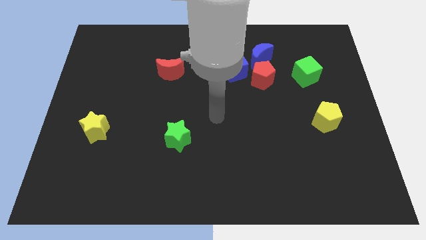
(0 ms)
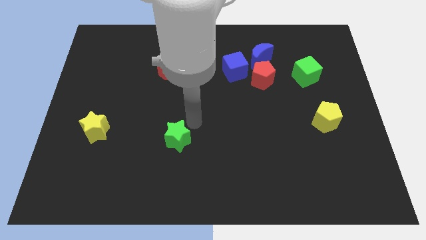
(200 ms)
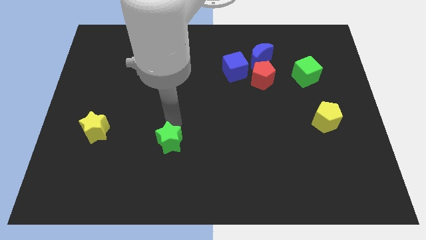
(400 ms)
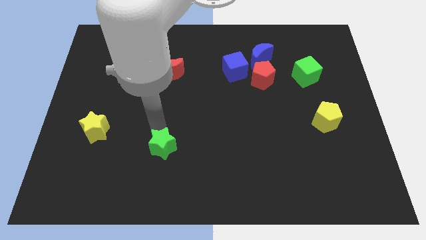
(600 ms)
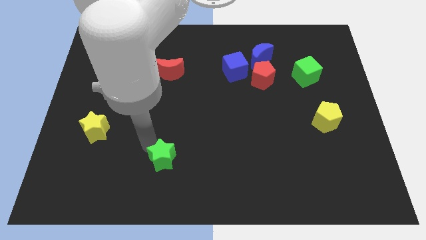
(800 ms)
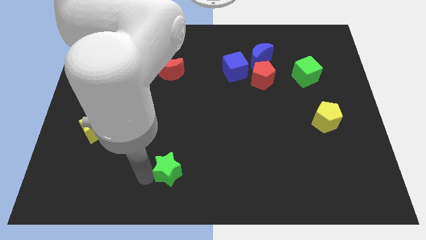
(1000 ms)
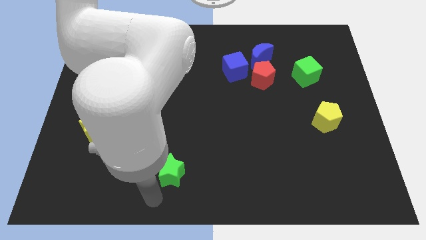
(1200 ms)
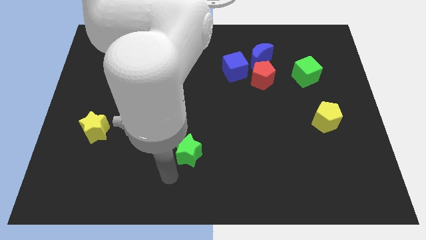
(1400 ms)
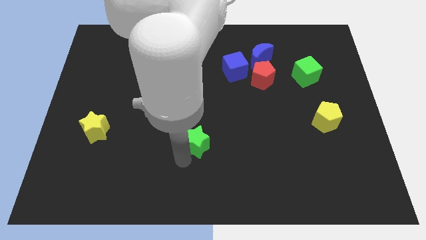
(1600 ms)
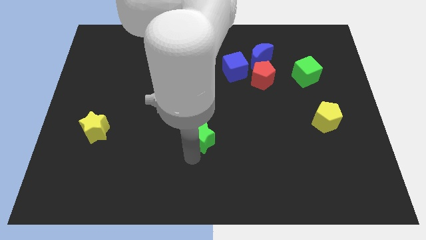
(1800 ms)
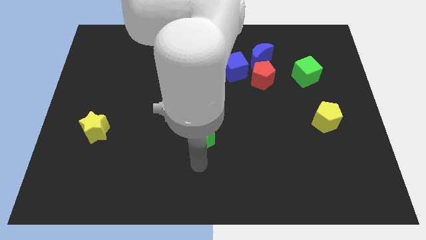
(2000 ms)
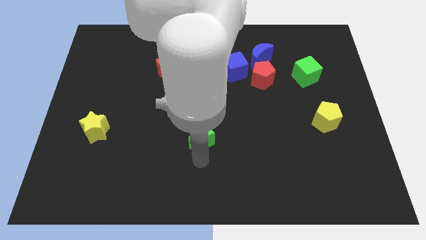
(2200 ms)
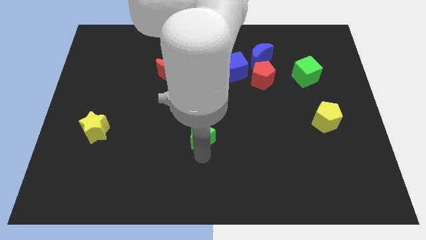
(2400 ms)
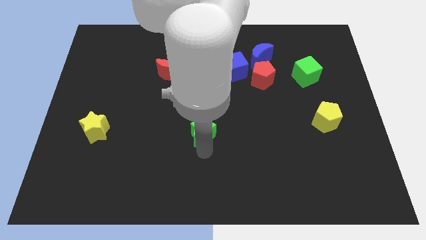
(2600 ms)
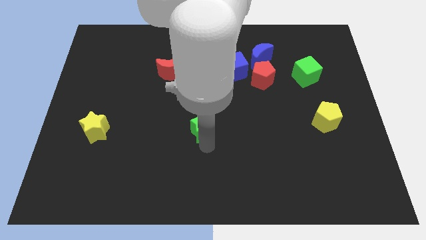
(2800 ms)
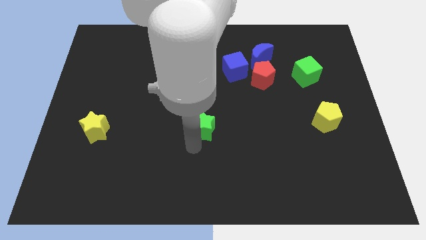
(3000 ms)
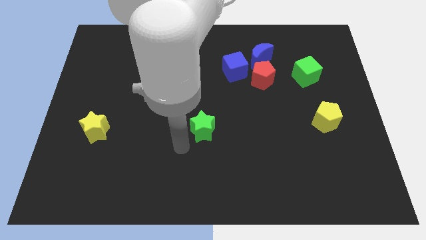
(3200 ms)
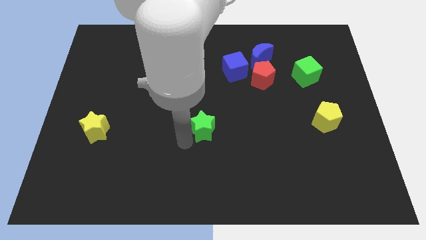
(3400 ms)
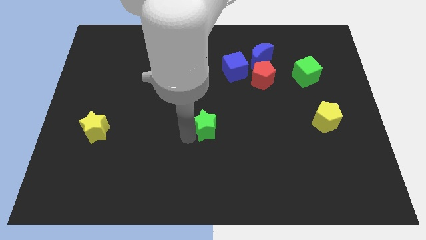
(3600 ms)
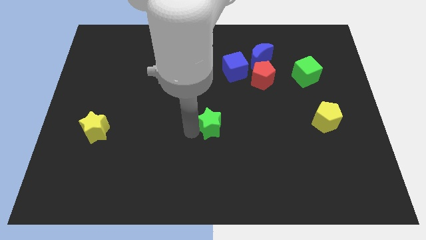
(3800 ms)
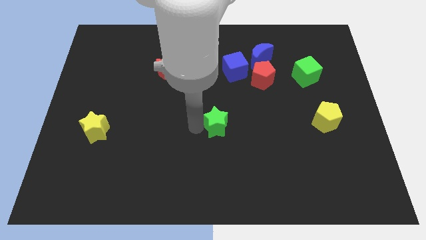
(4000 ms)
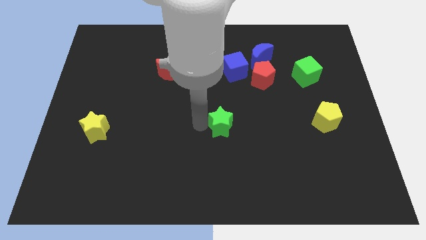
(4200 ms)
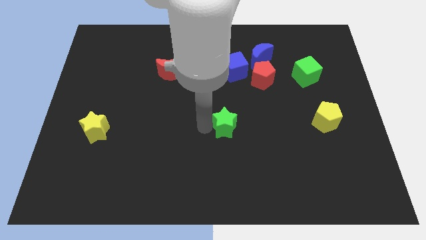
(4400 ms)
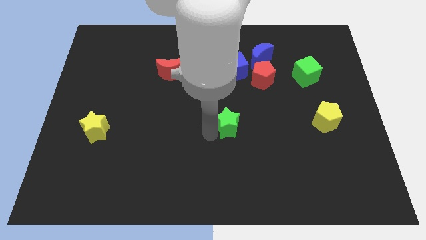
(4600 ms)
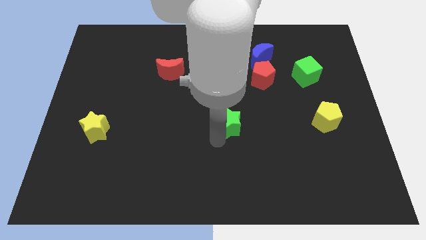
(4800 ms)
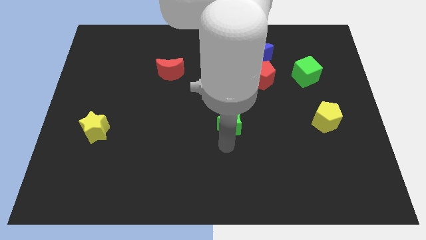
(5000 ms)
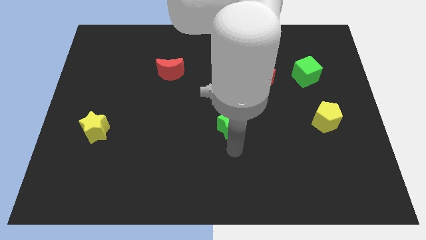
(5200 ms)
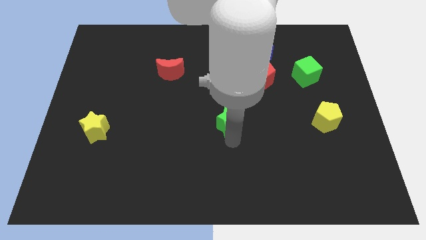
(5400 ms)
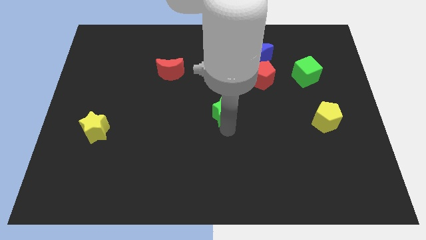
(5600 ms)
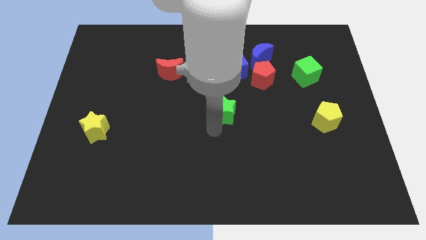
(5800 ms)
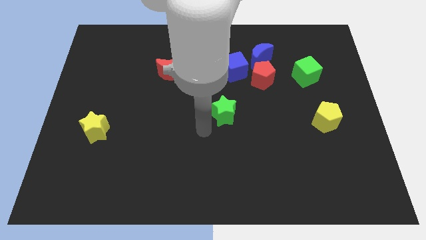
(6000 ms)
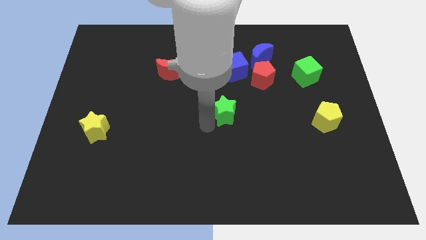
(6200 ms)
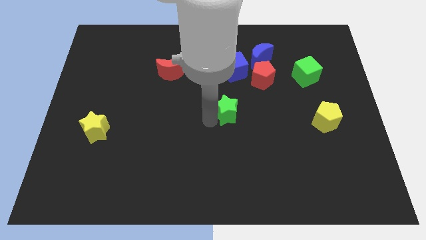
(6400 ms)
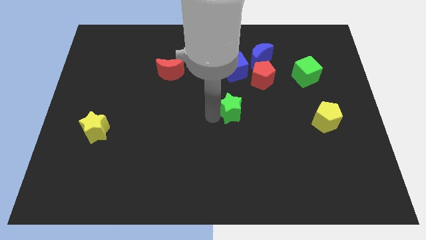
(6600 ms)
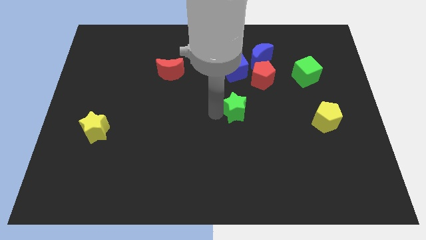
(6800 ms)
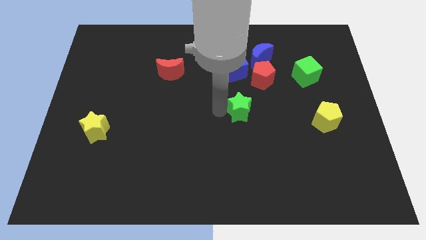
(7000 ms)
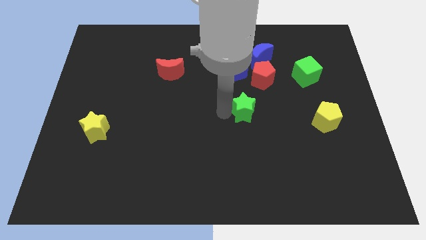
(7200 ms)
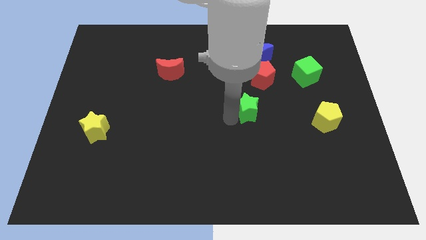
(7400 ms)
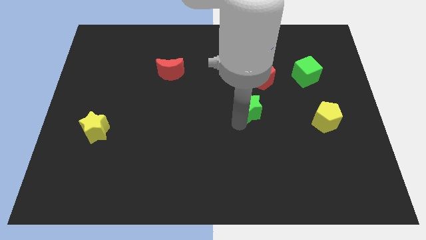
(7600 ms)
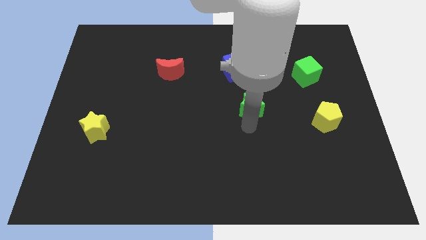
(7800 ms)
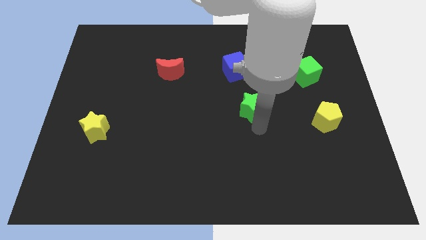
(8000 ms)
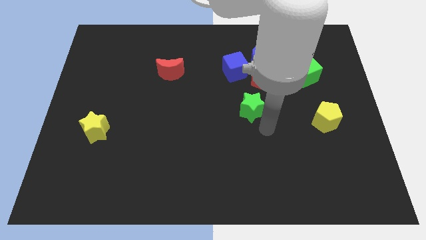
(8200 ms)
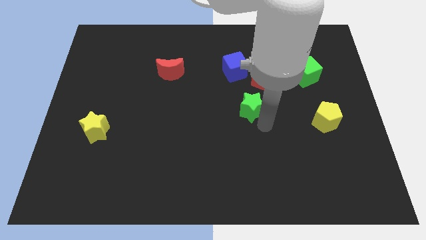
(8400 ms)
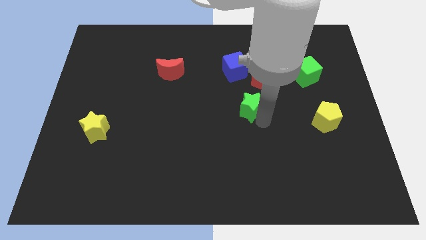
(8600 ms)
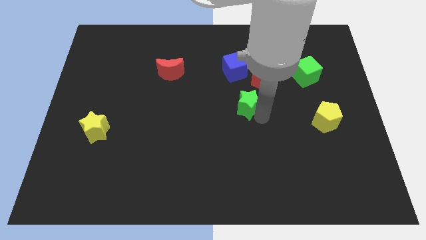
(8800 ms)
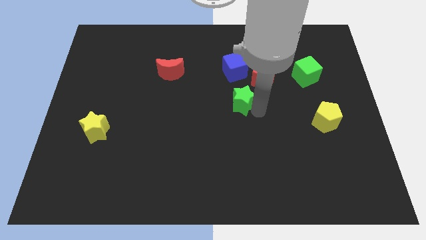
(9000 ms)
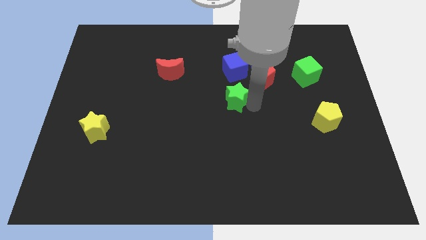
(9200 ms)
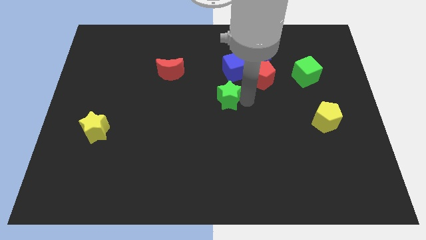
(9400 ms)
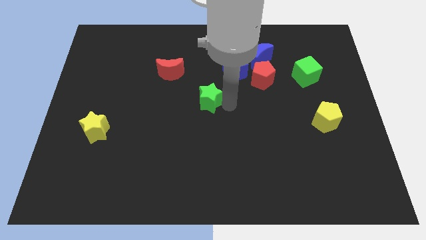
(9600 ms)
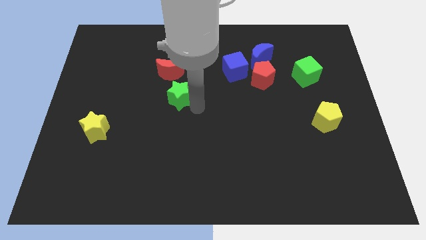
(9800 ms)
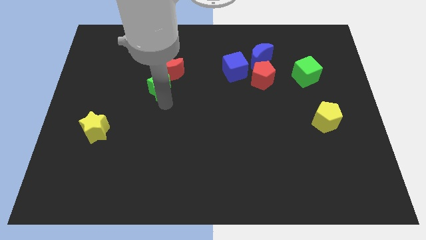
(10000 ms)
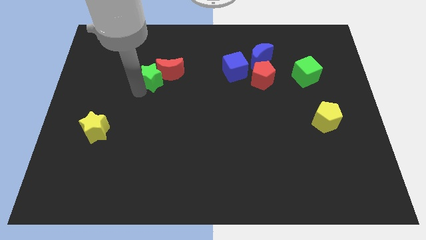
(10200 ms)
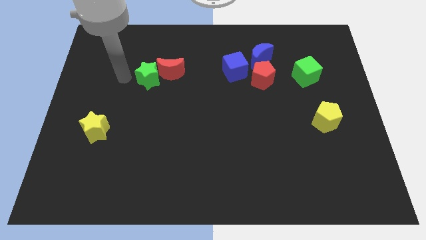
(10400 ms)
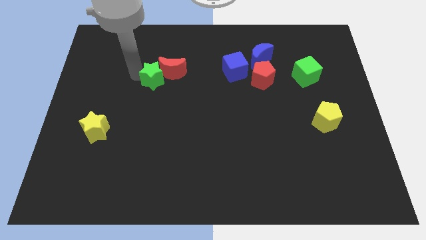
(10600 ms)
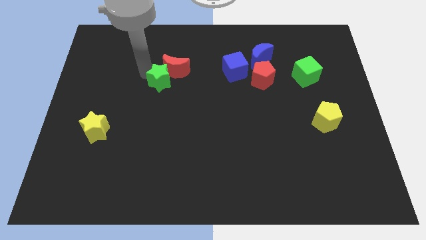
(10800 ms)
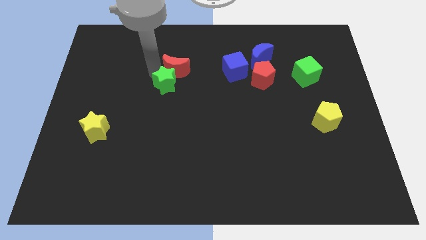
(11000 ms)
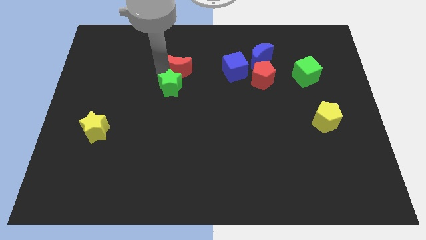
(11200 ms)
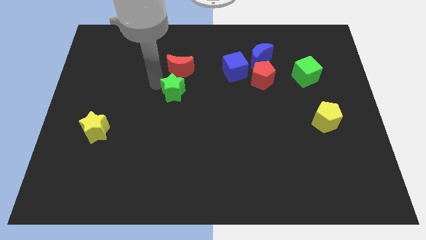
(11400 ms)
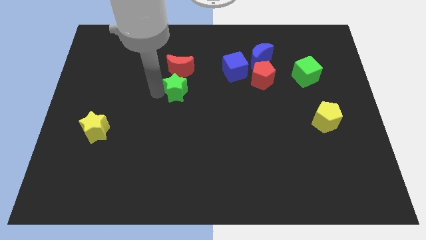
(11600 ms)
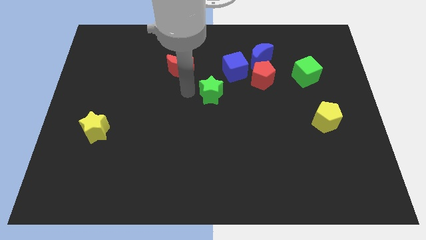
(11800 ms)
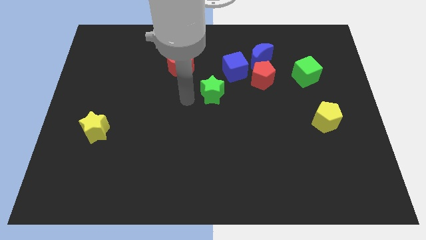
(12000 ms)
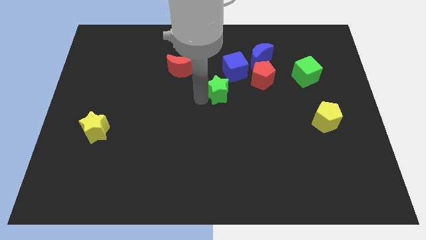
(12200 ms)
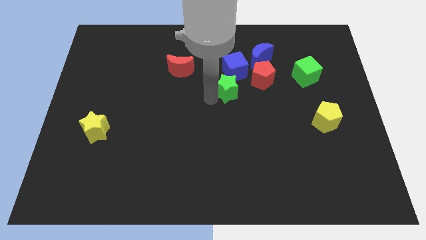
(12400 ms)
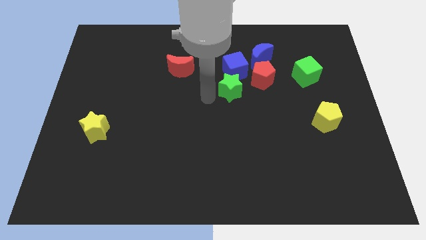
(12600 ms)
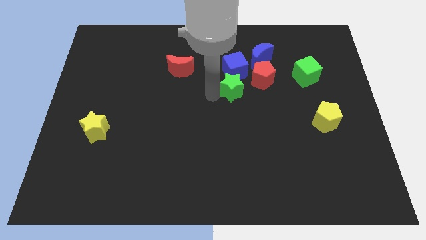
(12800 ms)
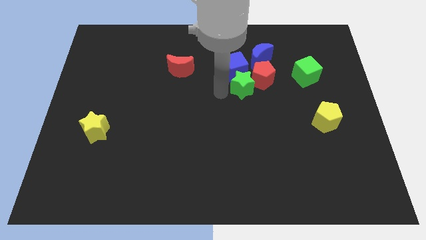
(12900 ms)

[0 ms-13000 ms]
slide the green star to the red pentagon
